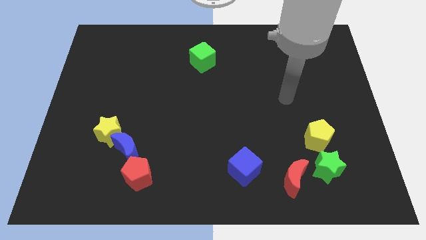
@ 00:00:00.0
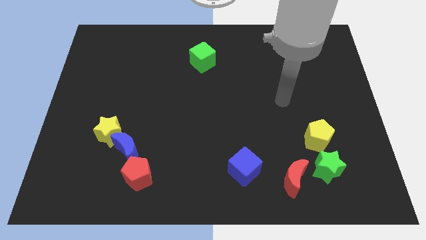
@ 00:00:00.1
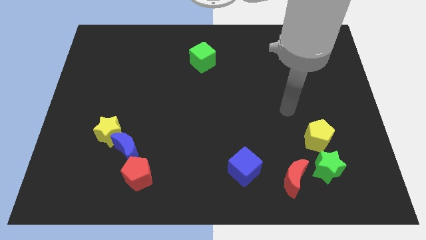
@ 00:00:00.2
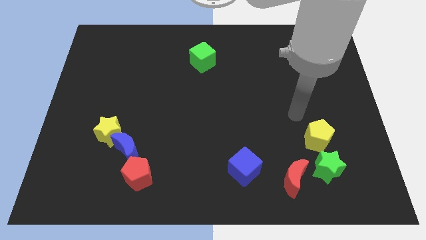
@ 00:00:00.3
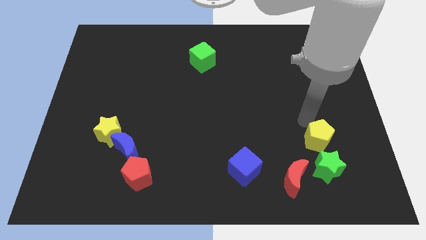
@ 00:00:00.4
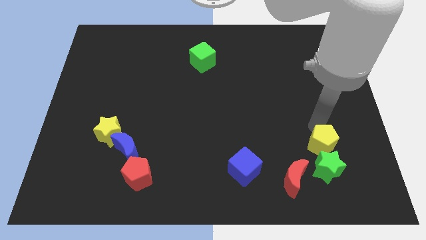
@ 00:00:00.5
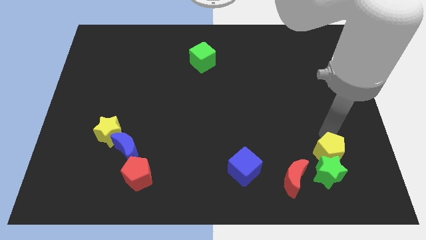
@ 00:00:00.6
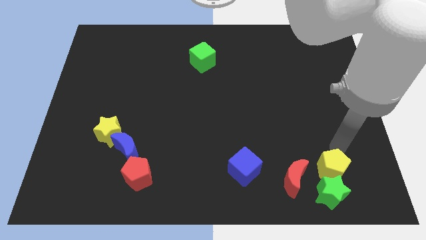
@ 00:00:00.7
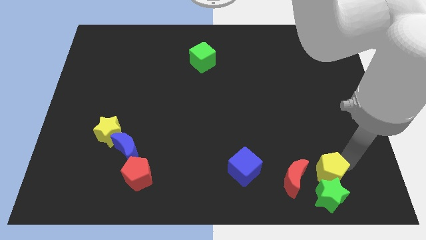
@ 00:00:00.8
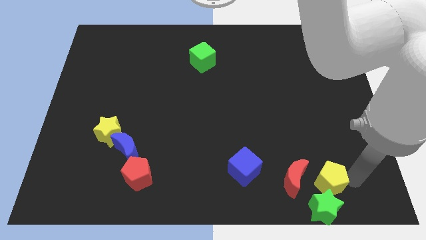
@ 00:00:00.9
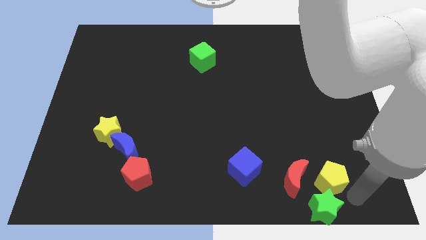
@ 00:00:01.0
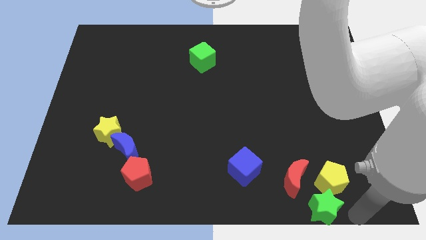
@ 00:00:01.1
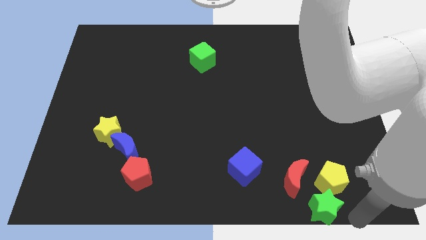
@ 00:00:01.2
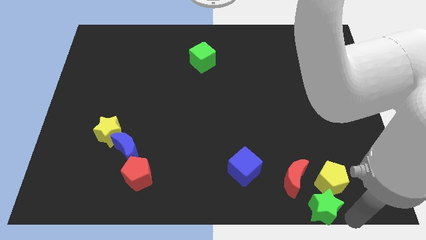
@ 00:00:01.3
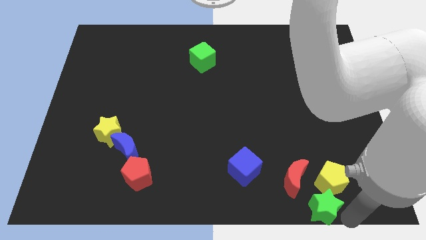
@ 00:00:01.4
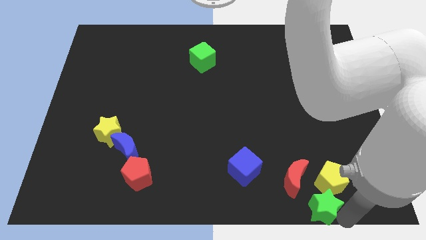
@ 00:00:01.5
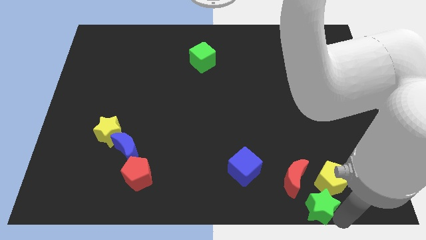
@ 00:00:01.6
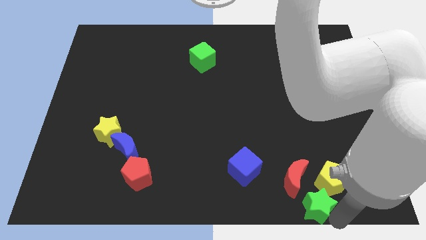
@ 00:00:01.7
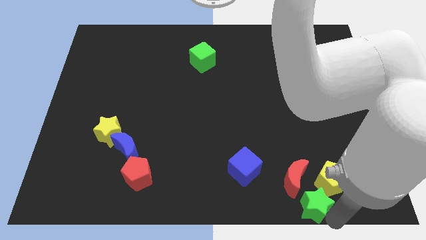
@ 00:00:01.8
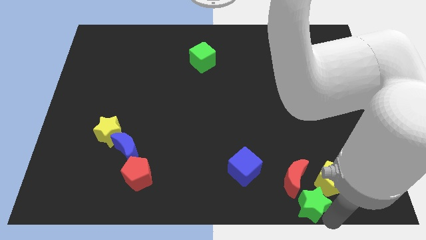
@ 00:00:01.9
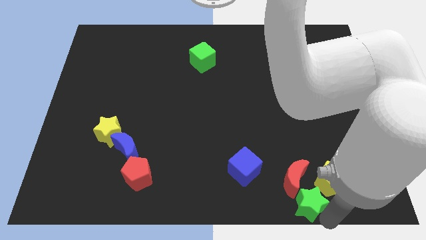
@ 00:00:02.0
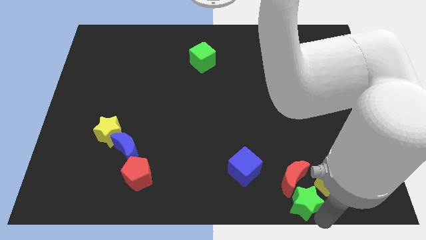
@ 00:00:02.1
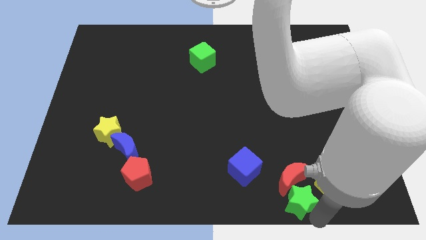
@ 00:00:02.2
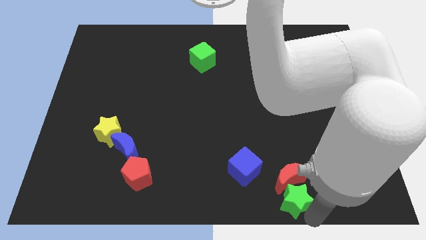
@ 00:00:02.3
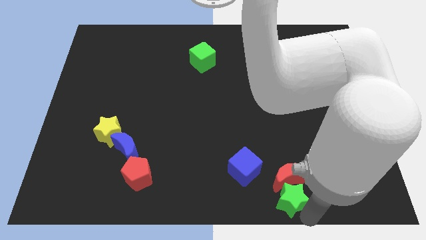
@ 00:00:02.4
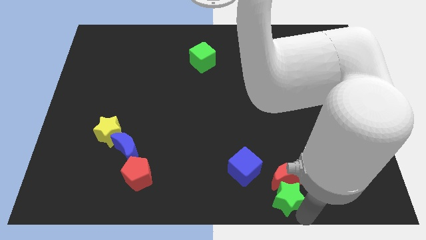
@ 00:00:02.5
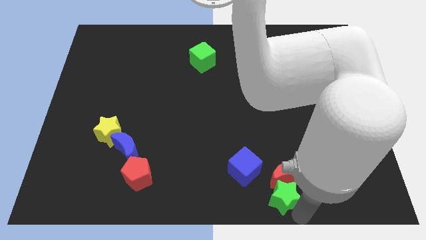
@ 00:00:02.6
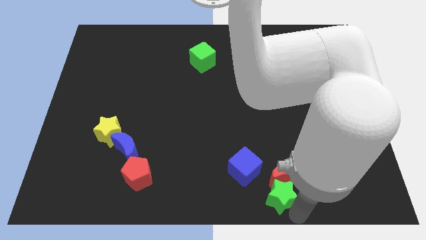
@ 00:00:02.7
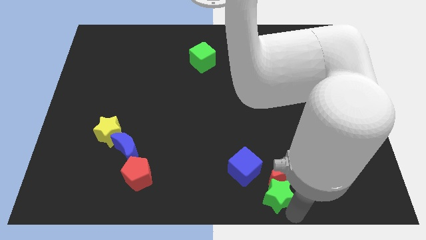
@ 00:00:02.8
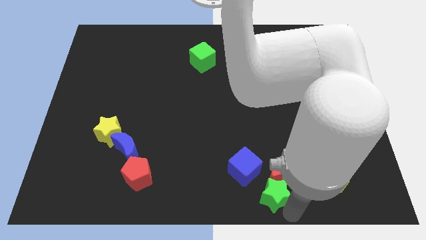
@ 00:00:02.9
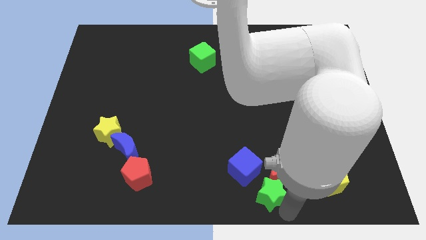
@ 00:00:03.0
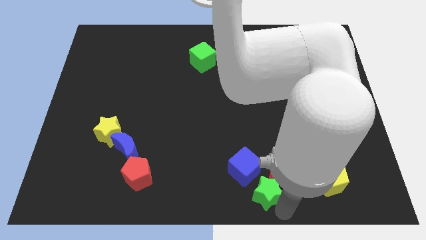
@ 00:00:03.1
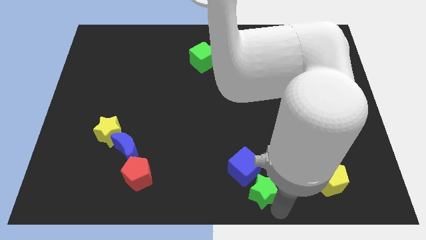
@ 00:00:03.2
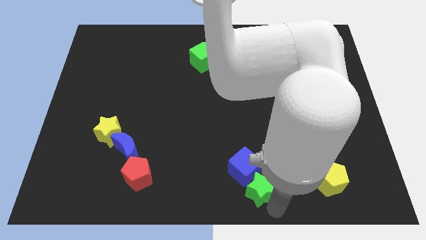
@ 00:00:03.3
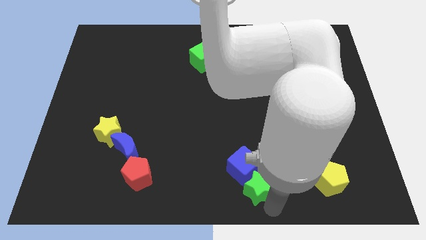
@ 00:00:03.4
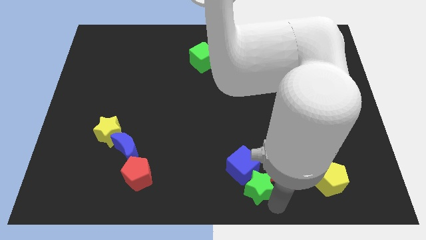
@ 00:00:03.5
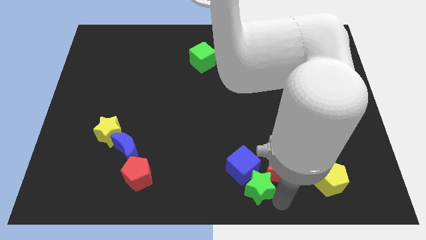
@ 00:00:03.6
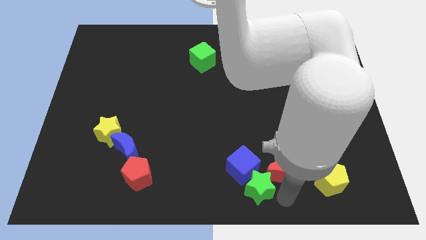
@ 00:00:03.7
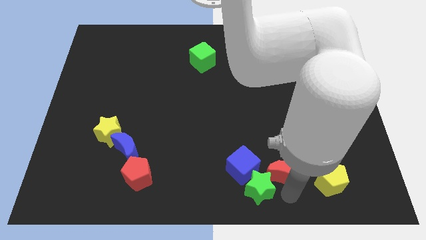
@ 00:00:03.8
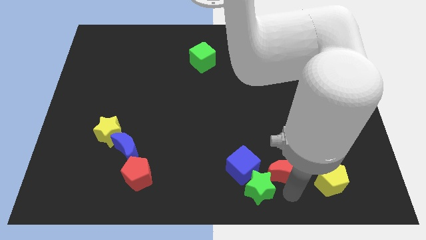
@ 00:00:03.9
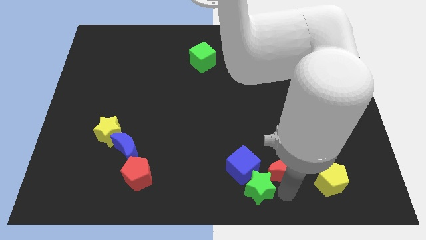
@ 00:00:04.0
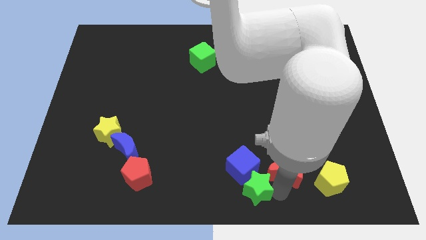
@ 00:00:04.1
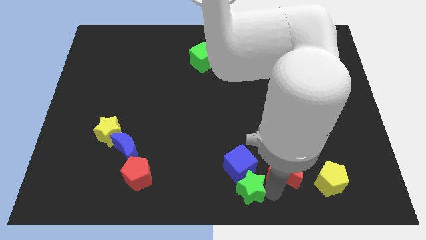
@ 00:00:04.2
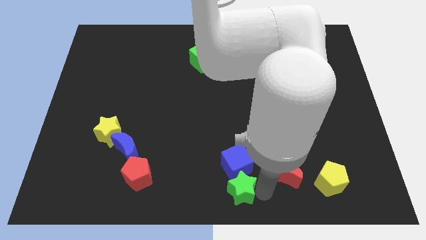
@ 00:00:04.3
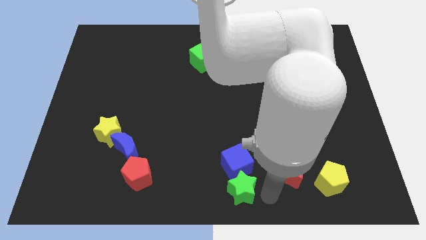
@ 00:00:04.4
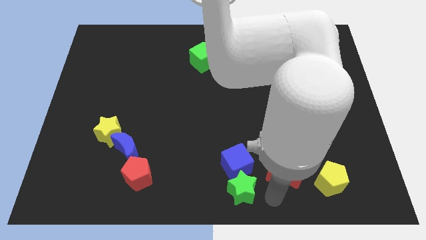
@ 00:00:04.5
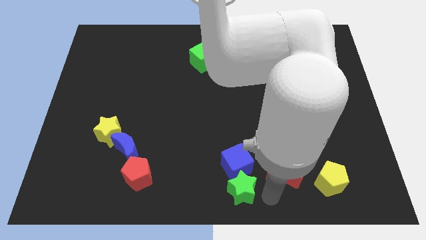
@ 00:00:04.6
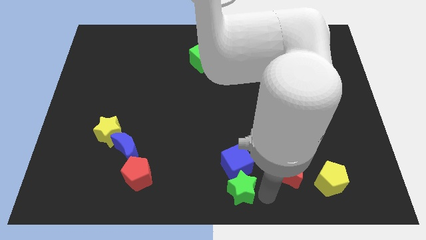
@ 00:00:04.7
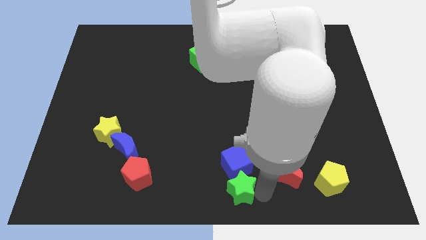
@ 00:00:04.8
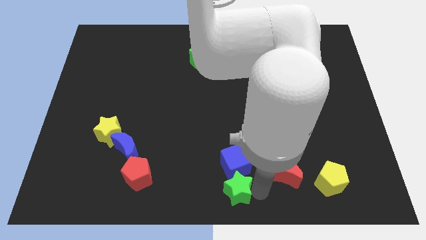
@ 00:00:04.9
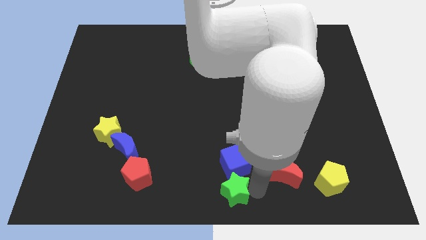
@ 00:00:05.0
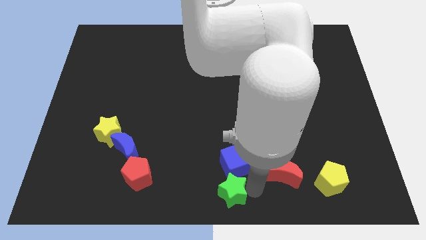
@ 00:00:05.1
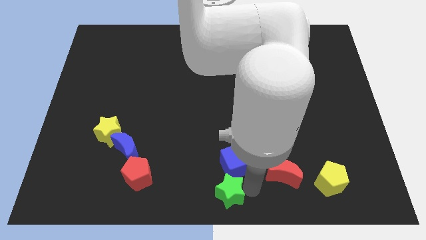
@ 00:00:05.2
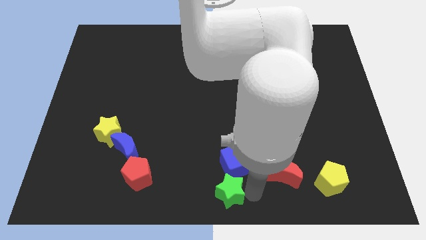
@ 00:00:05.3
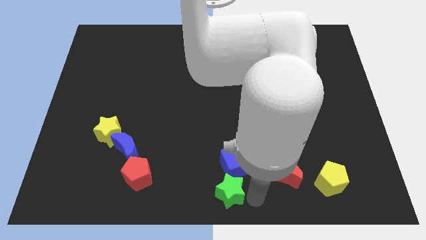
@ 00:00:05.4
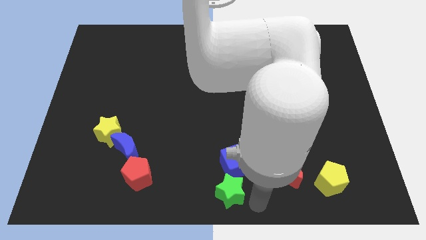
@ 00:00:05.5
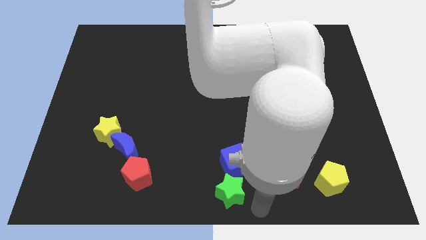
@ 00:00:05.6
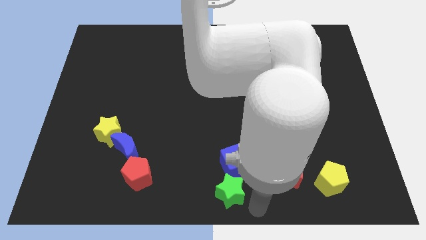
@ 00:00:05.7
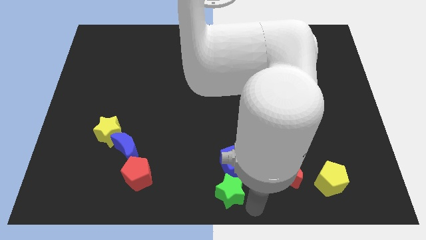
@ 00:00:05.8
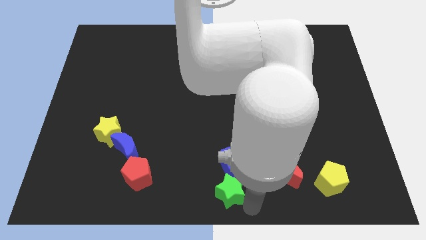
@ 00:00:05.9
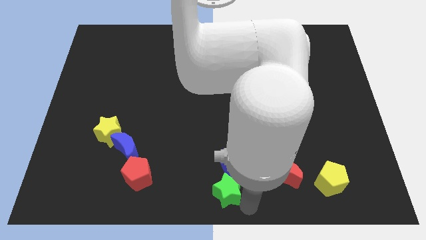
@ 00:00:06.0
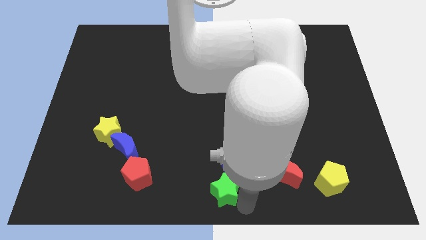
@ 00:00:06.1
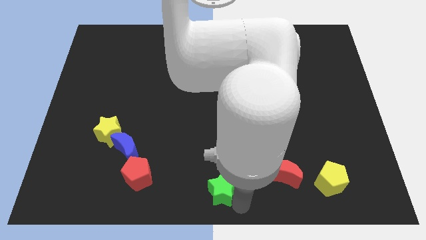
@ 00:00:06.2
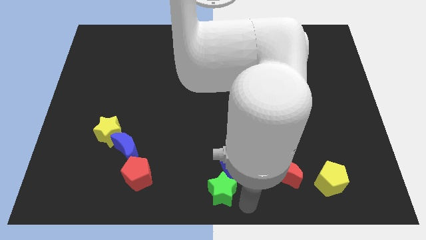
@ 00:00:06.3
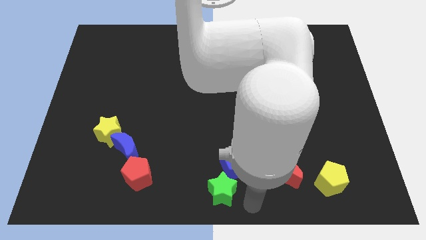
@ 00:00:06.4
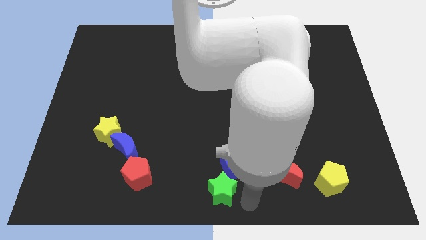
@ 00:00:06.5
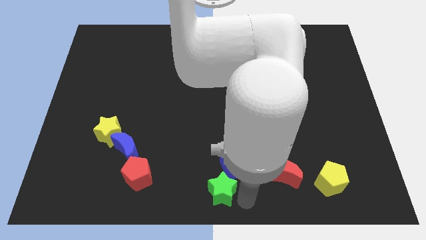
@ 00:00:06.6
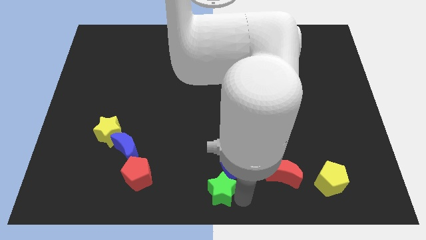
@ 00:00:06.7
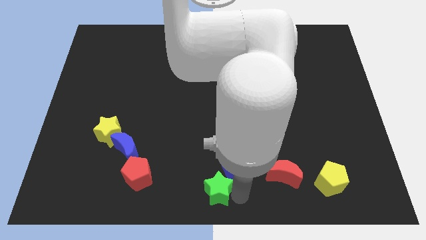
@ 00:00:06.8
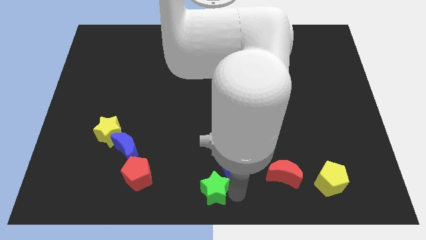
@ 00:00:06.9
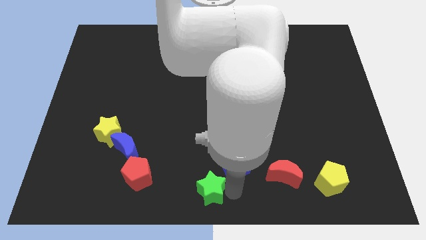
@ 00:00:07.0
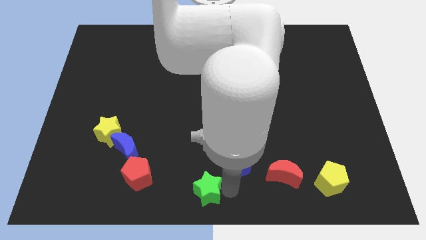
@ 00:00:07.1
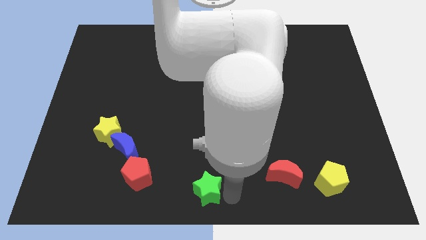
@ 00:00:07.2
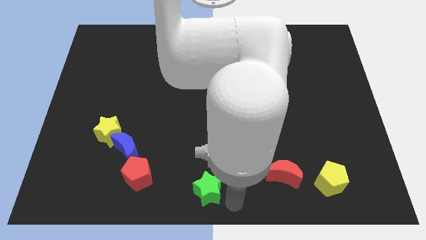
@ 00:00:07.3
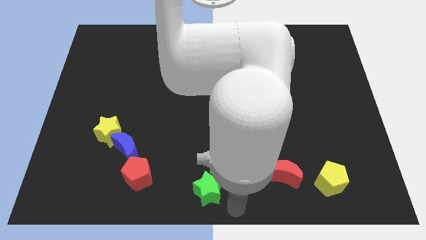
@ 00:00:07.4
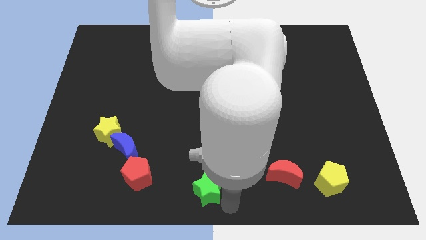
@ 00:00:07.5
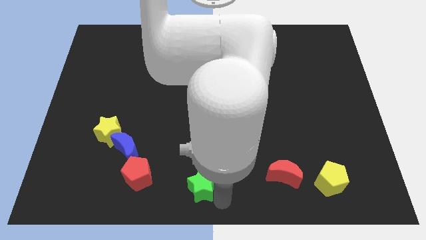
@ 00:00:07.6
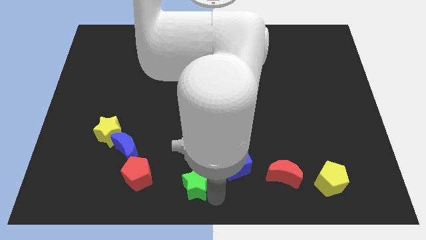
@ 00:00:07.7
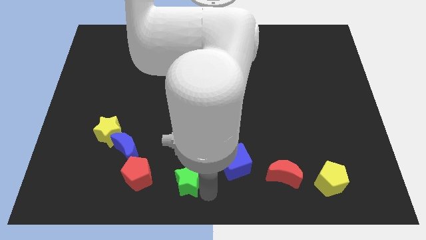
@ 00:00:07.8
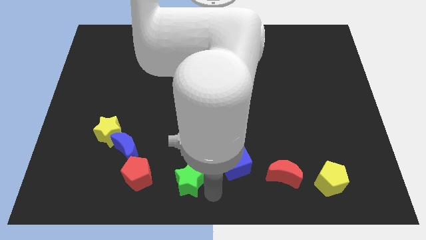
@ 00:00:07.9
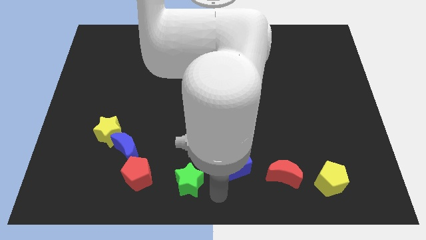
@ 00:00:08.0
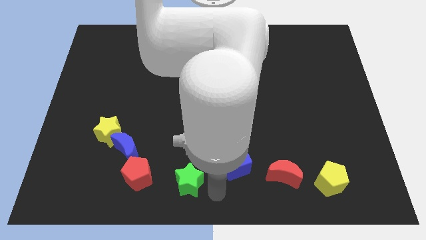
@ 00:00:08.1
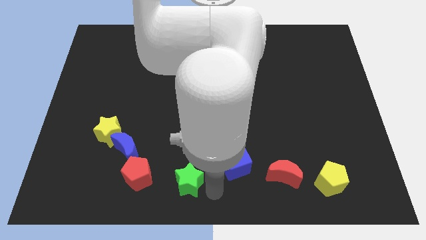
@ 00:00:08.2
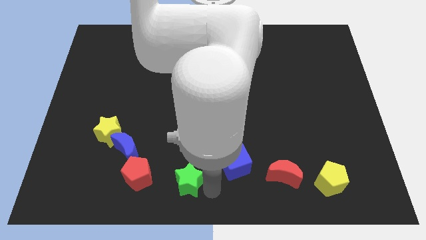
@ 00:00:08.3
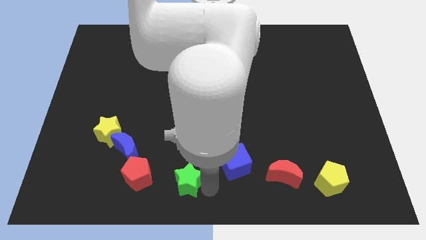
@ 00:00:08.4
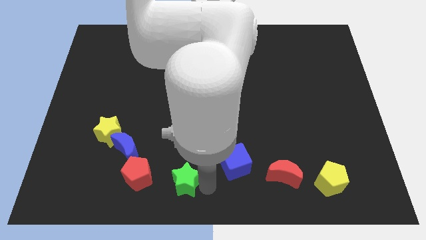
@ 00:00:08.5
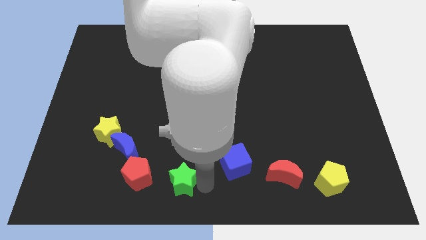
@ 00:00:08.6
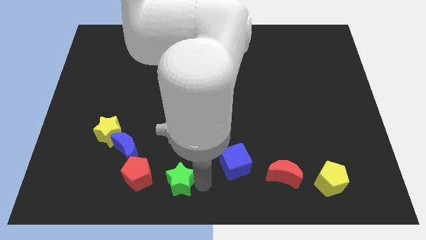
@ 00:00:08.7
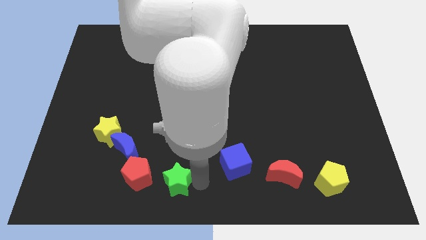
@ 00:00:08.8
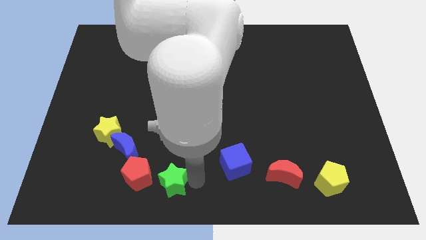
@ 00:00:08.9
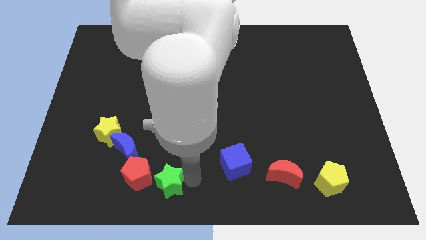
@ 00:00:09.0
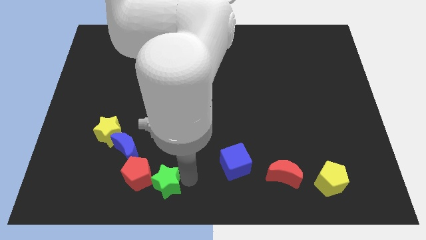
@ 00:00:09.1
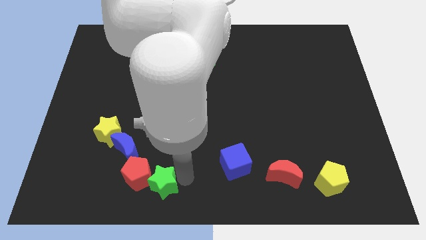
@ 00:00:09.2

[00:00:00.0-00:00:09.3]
slide the green star to the red pentagon
